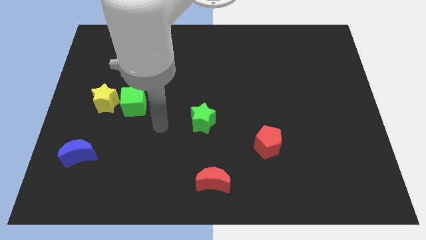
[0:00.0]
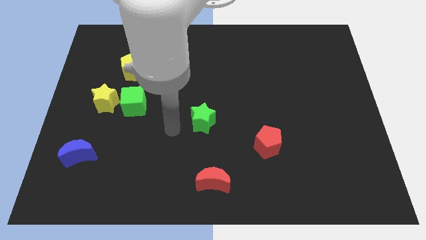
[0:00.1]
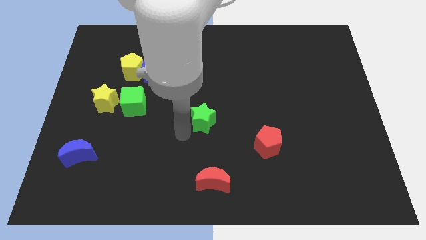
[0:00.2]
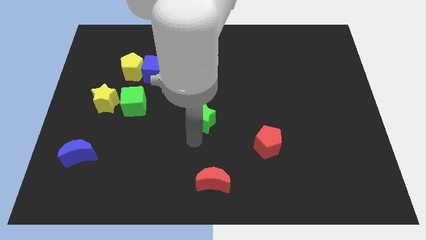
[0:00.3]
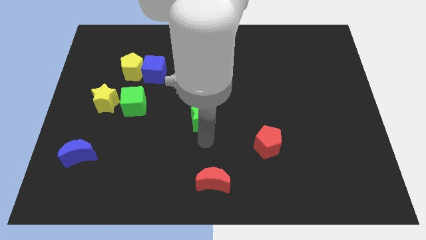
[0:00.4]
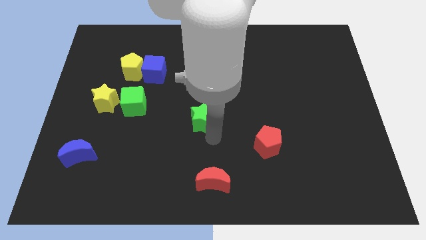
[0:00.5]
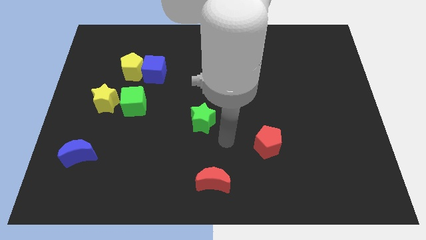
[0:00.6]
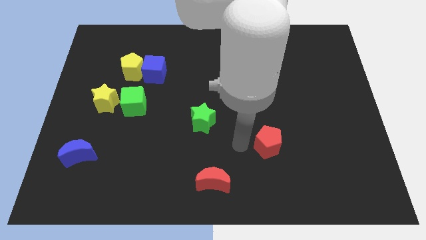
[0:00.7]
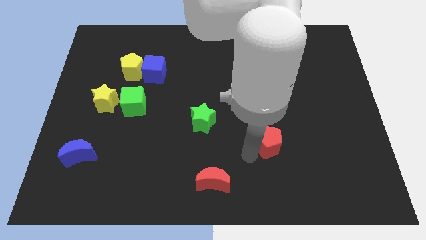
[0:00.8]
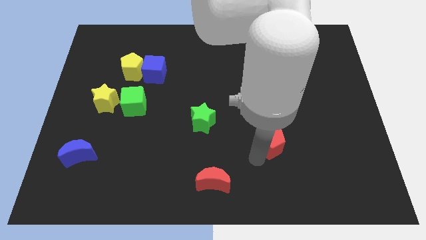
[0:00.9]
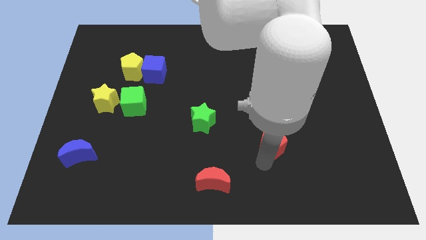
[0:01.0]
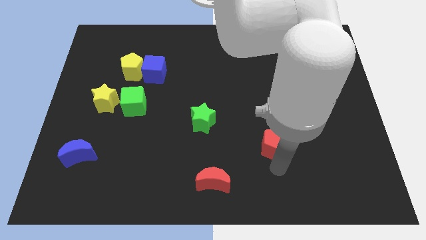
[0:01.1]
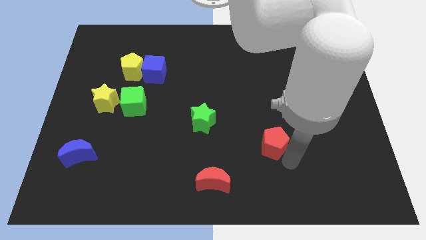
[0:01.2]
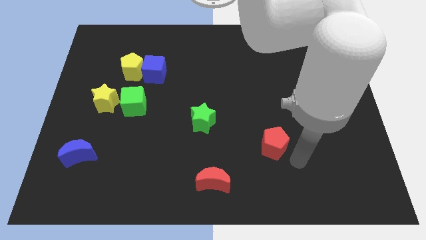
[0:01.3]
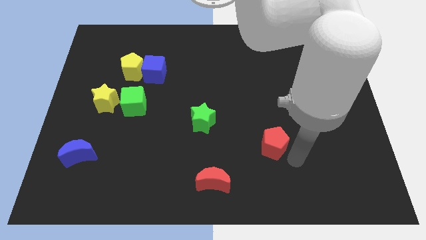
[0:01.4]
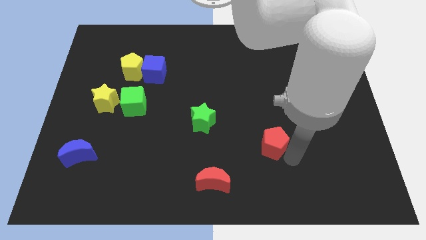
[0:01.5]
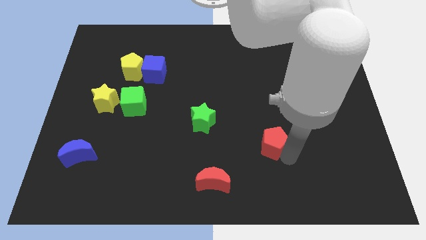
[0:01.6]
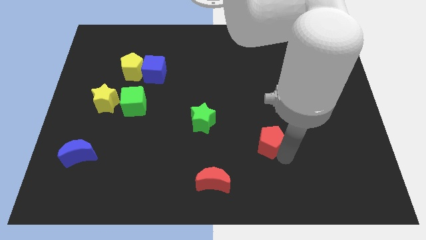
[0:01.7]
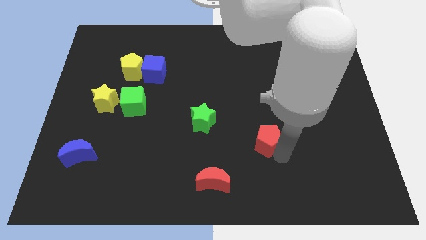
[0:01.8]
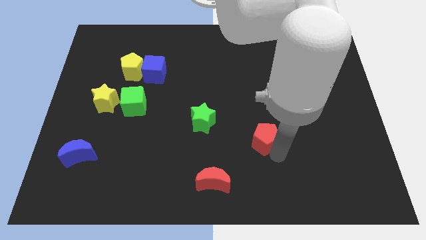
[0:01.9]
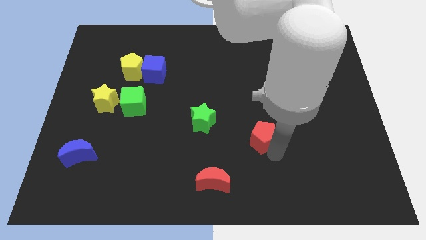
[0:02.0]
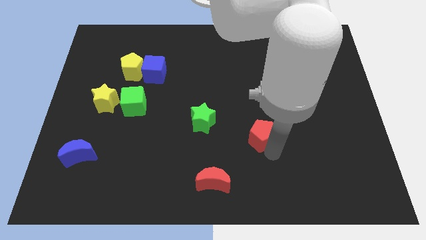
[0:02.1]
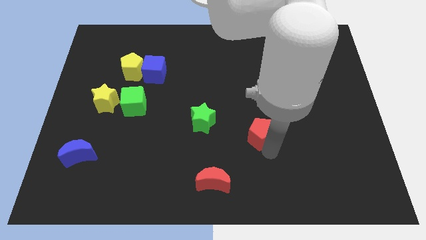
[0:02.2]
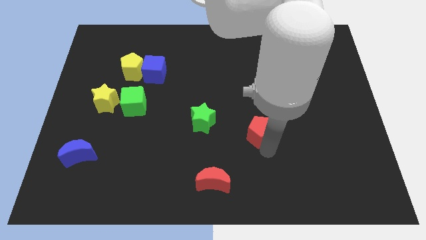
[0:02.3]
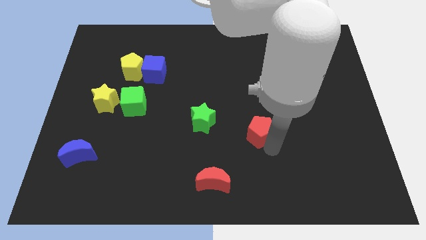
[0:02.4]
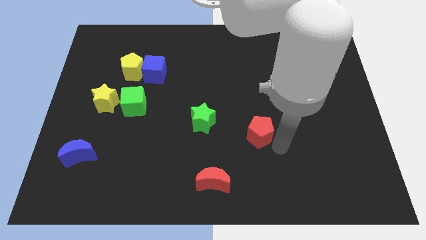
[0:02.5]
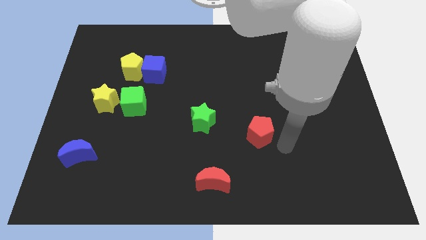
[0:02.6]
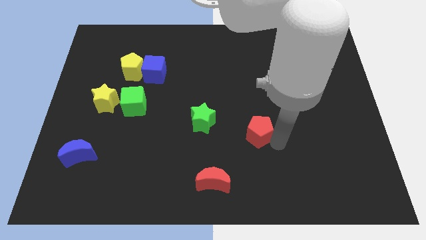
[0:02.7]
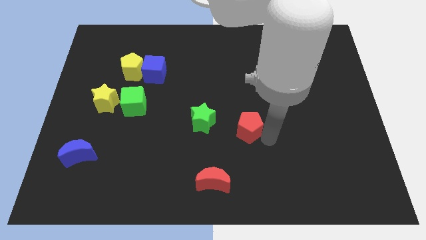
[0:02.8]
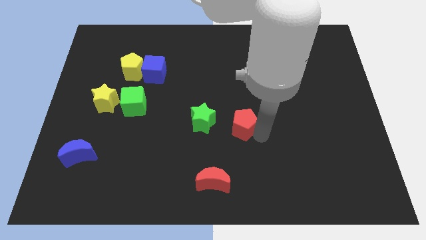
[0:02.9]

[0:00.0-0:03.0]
slide the red pentagon a little up and left diagonally

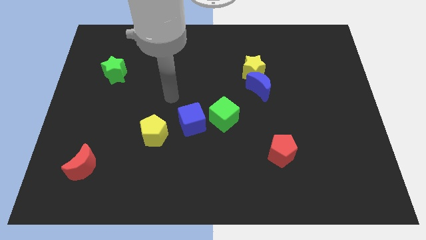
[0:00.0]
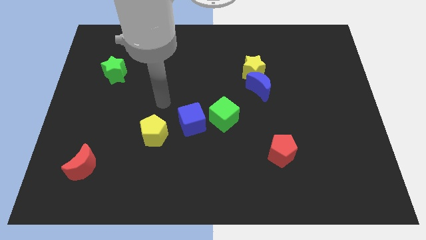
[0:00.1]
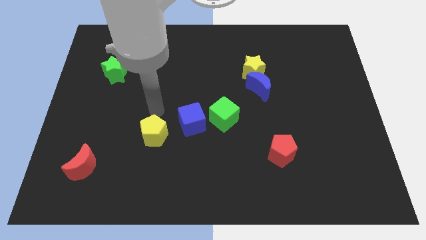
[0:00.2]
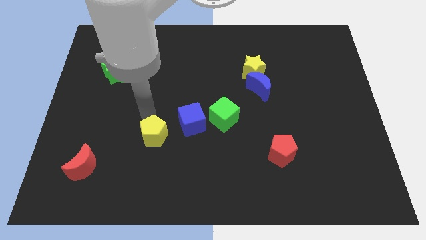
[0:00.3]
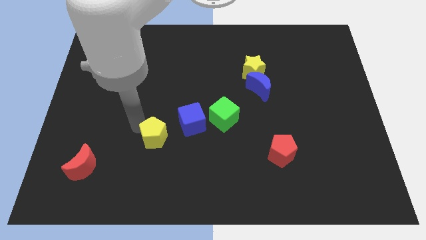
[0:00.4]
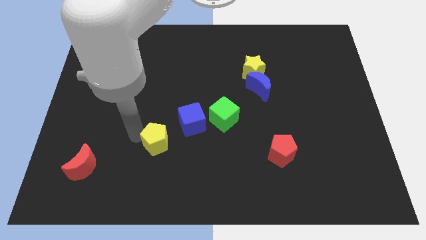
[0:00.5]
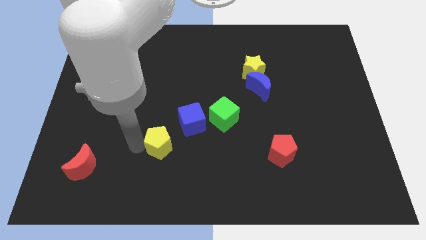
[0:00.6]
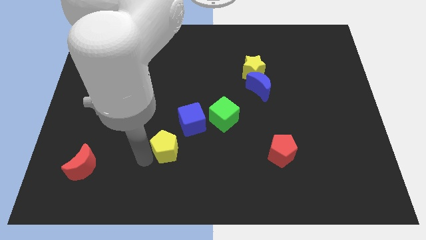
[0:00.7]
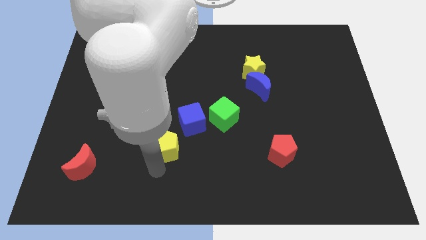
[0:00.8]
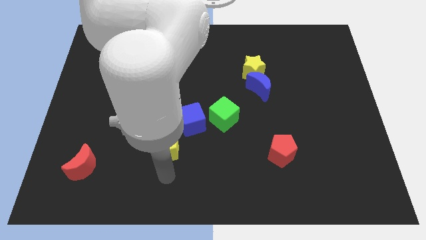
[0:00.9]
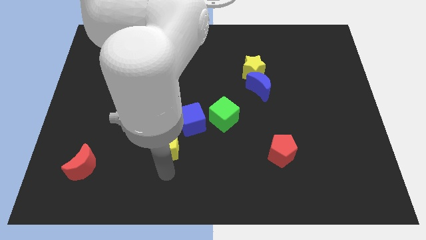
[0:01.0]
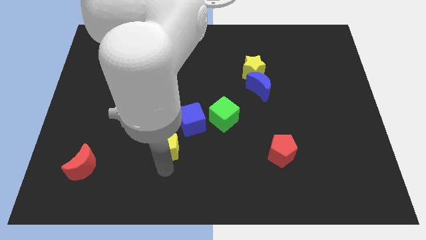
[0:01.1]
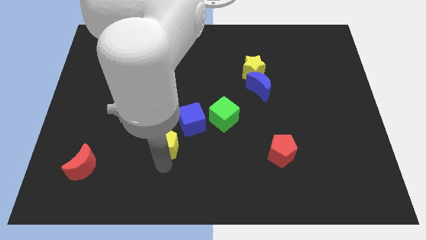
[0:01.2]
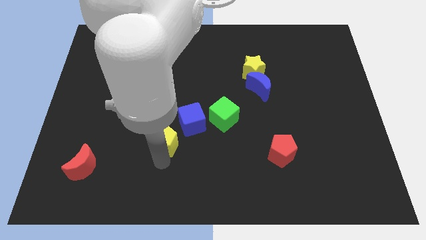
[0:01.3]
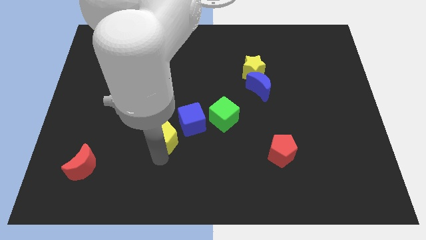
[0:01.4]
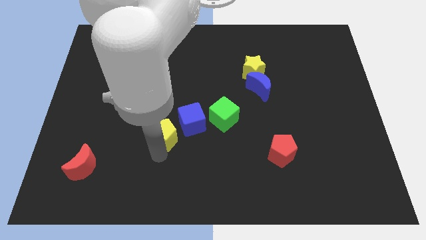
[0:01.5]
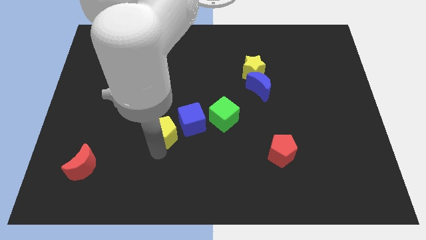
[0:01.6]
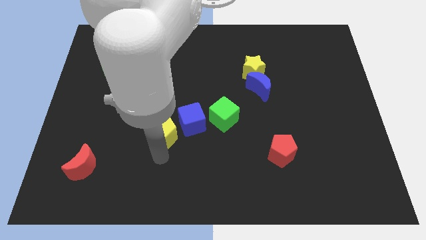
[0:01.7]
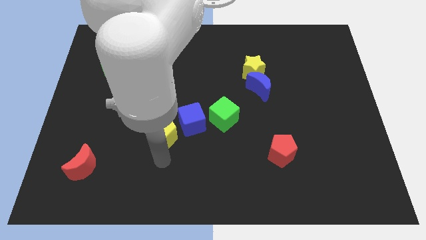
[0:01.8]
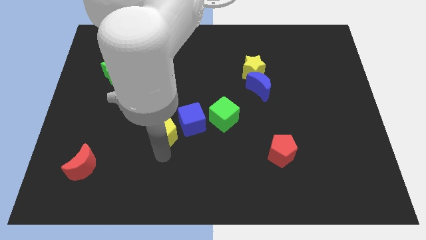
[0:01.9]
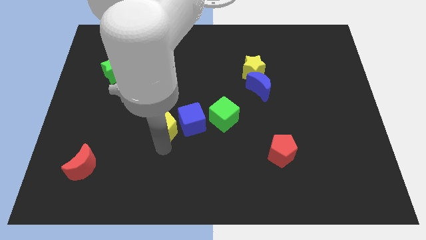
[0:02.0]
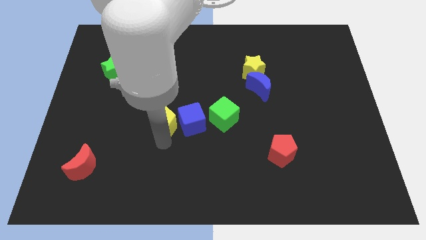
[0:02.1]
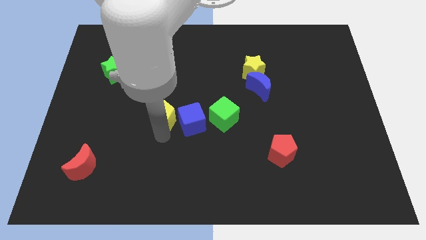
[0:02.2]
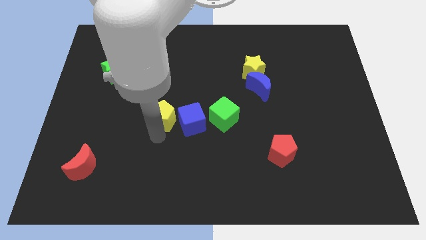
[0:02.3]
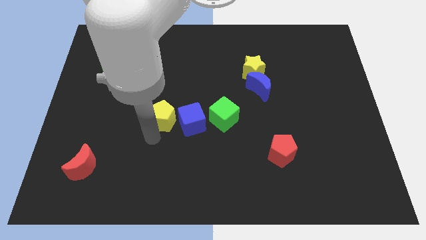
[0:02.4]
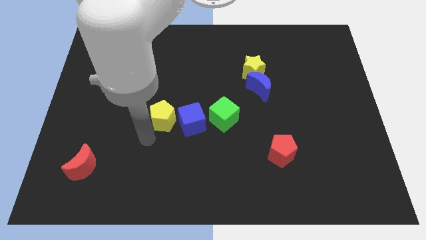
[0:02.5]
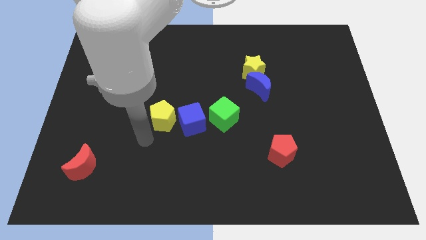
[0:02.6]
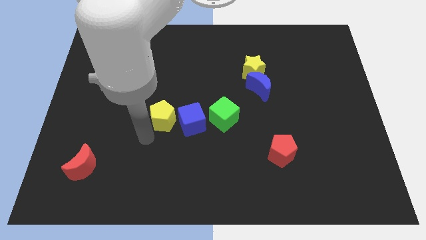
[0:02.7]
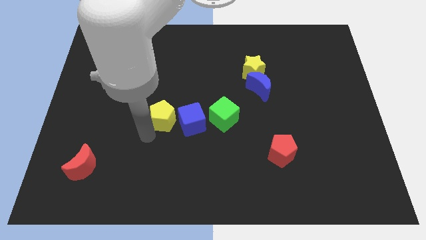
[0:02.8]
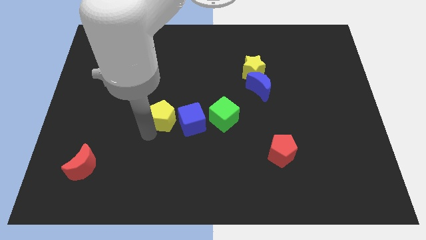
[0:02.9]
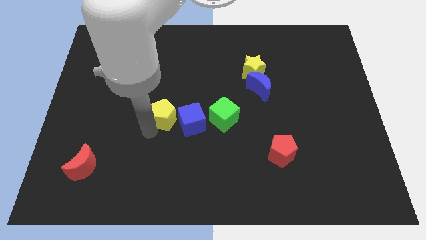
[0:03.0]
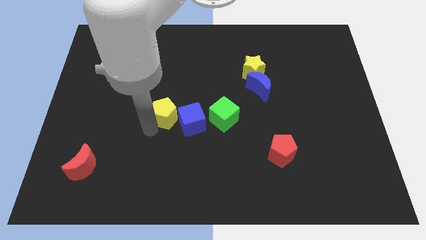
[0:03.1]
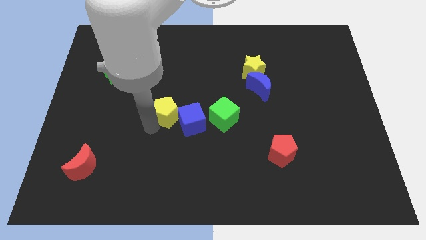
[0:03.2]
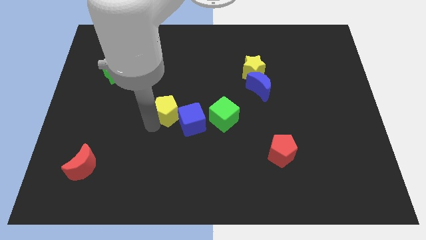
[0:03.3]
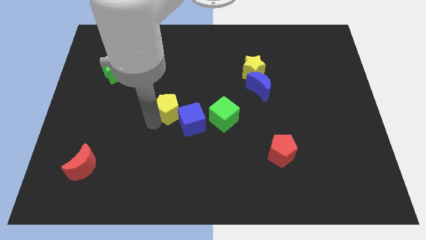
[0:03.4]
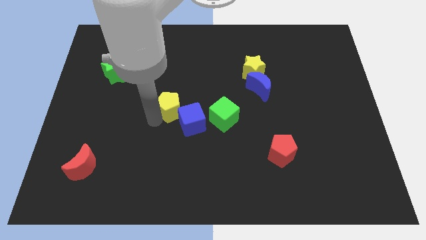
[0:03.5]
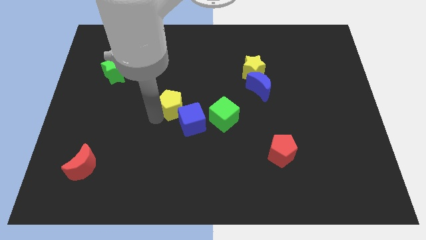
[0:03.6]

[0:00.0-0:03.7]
slide the yellow pentagon up and right a bit

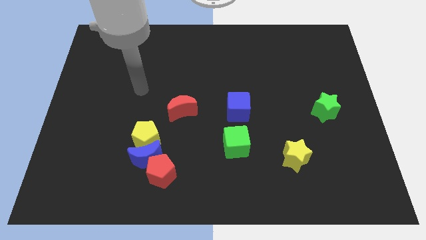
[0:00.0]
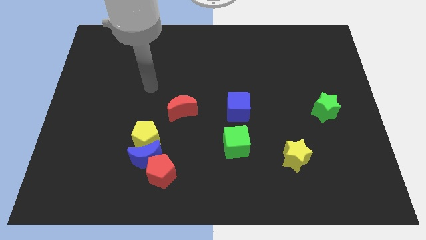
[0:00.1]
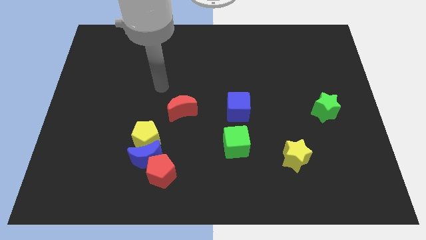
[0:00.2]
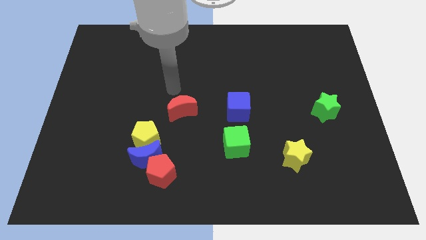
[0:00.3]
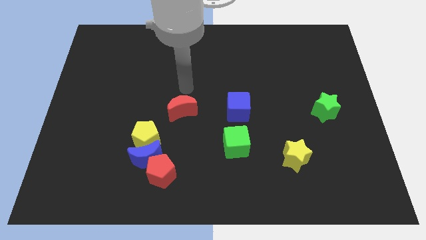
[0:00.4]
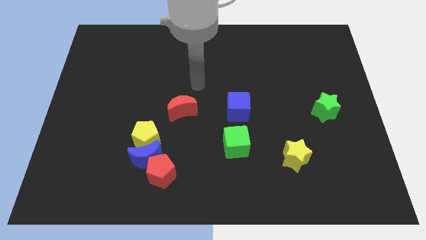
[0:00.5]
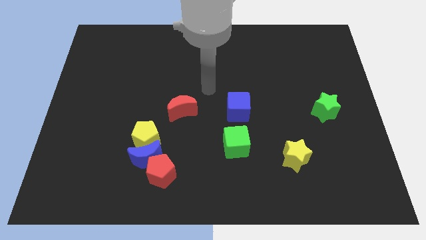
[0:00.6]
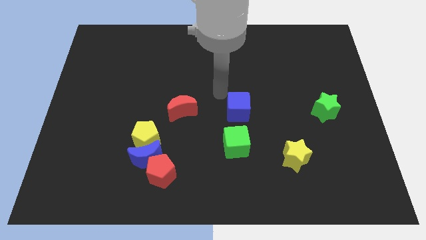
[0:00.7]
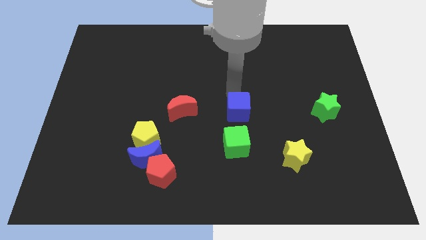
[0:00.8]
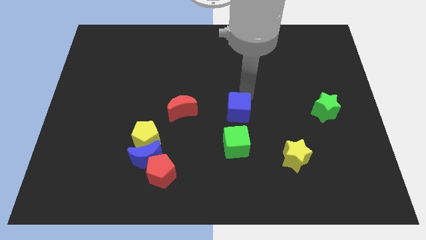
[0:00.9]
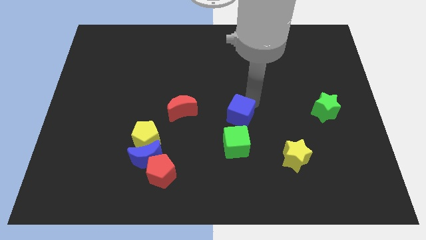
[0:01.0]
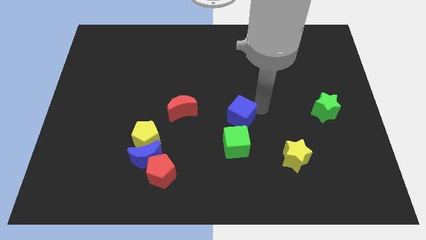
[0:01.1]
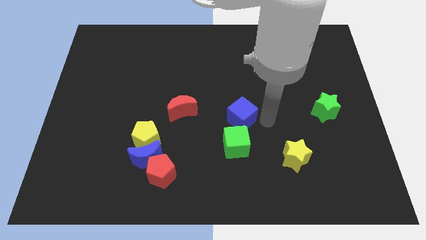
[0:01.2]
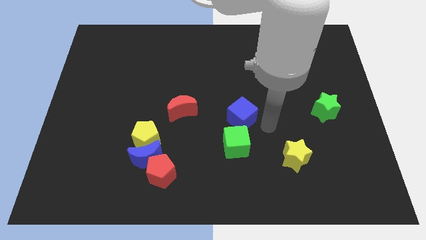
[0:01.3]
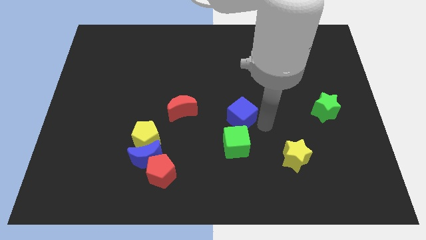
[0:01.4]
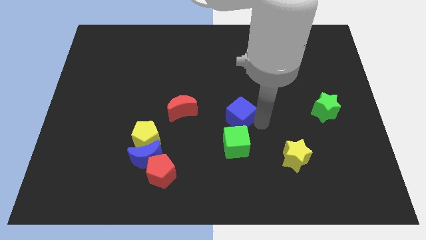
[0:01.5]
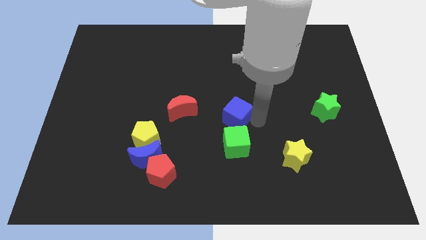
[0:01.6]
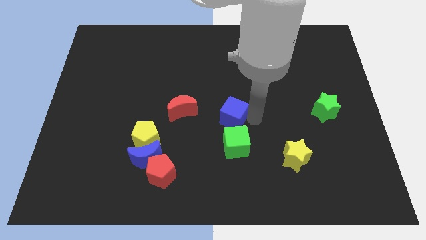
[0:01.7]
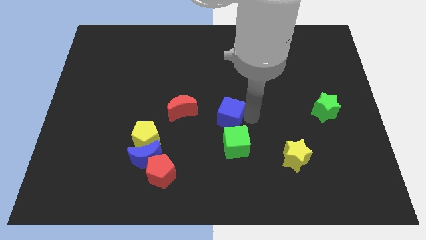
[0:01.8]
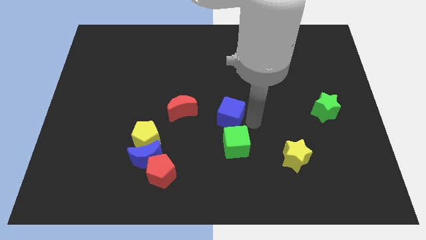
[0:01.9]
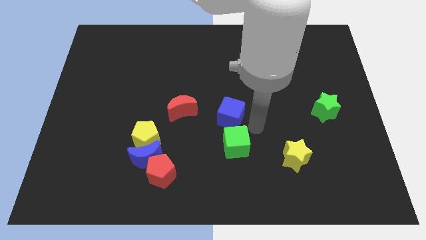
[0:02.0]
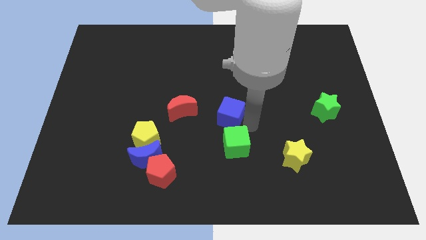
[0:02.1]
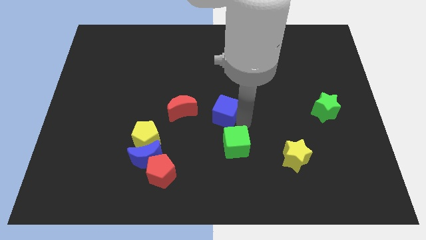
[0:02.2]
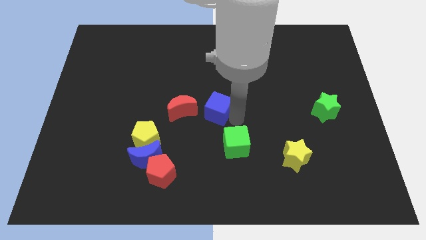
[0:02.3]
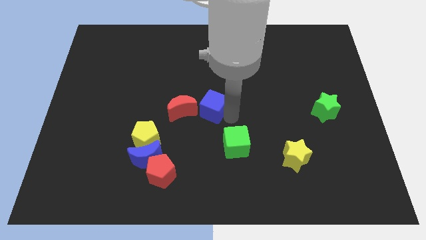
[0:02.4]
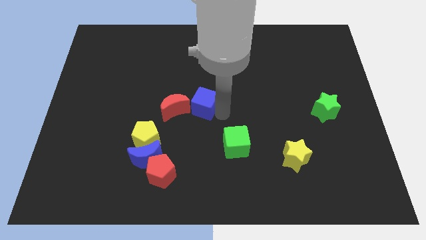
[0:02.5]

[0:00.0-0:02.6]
slightly move the blue cube to the left
